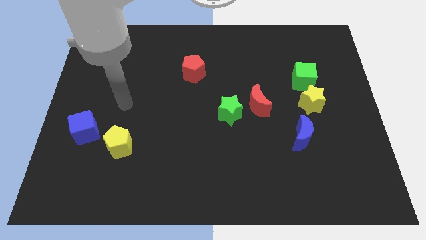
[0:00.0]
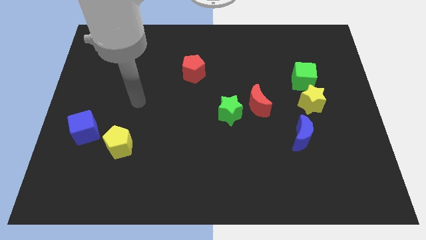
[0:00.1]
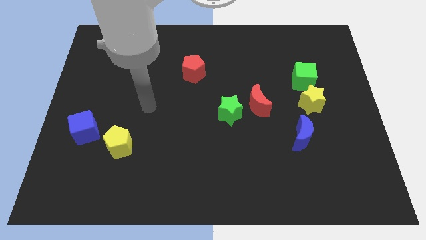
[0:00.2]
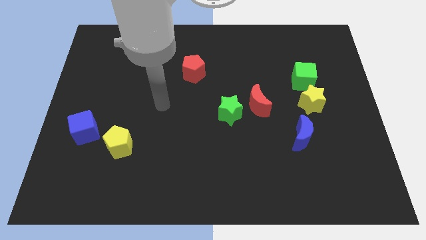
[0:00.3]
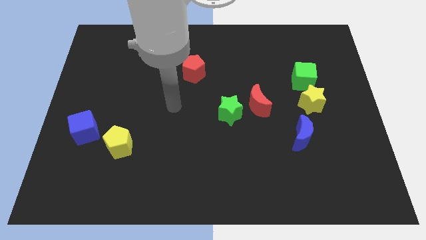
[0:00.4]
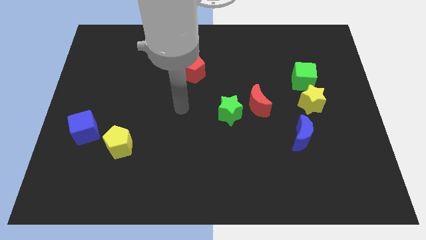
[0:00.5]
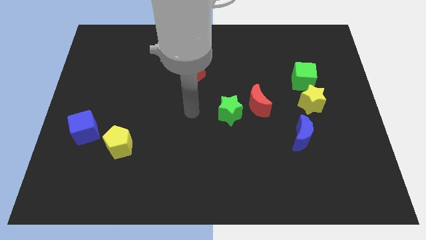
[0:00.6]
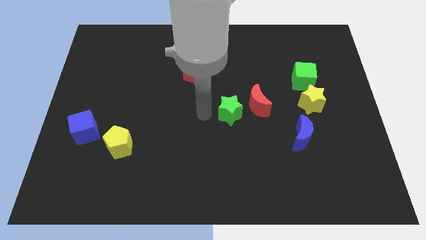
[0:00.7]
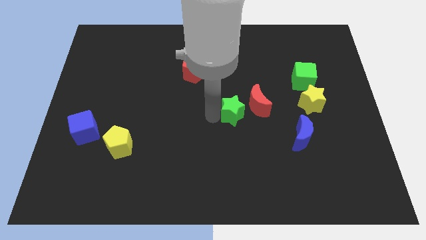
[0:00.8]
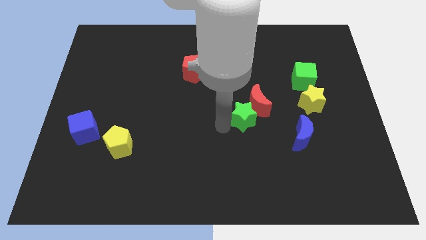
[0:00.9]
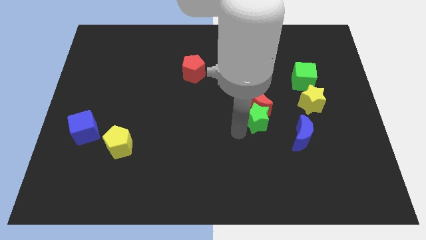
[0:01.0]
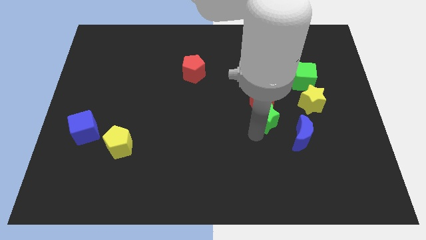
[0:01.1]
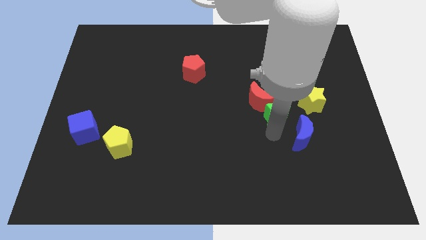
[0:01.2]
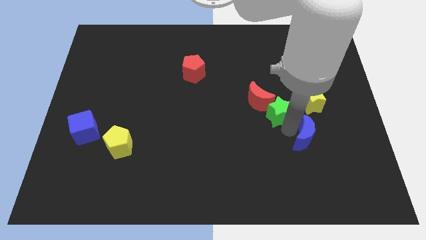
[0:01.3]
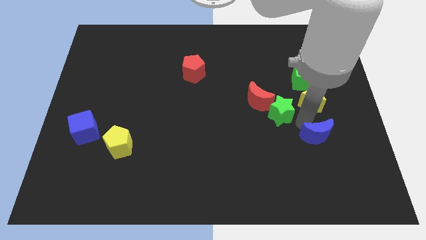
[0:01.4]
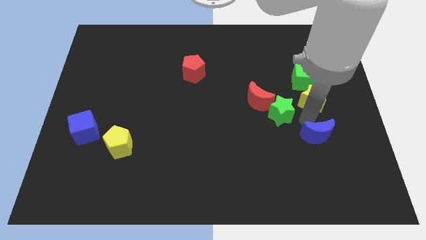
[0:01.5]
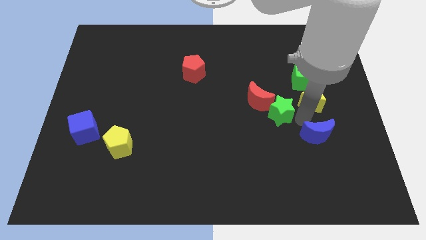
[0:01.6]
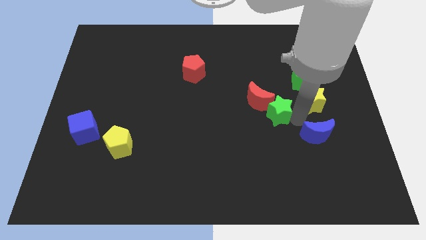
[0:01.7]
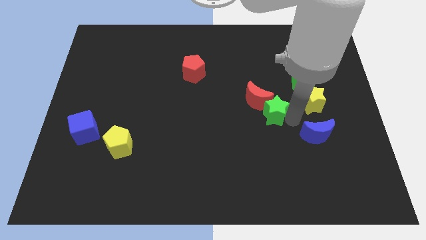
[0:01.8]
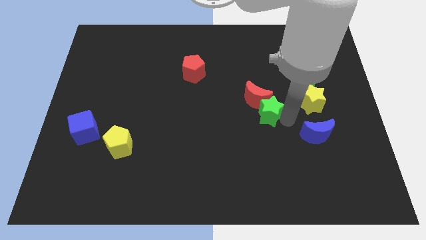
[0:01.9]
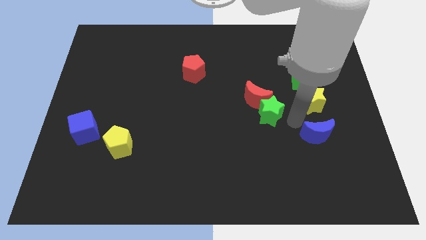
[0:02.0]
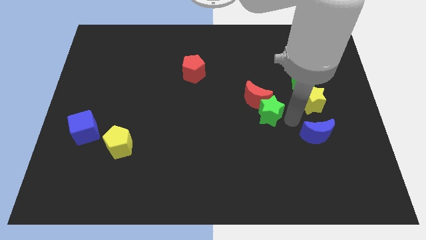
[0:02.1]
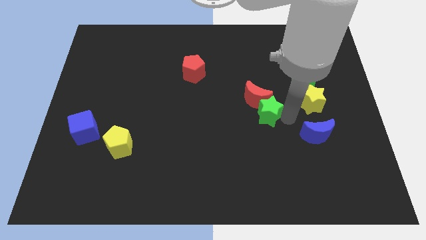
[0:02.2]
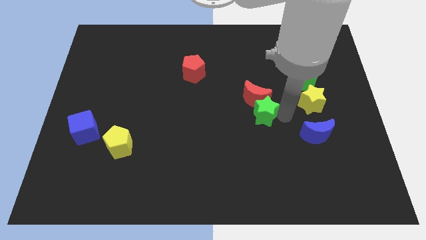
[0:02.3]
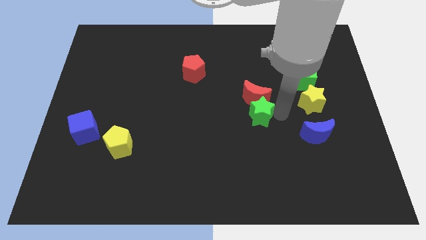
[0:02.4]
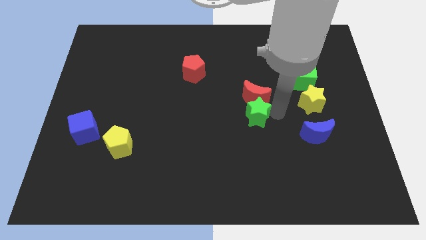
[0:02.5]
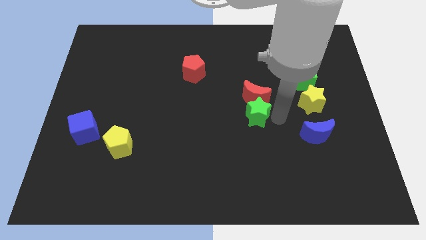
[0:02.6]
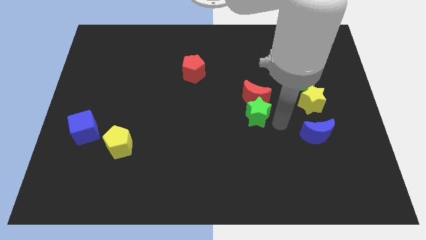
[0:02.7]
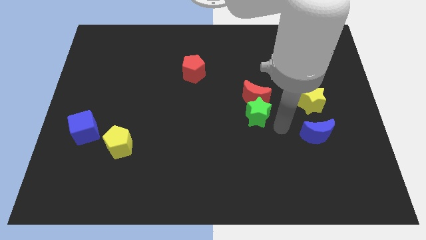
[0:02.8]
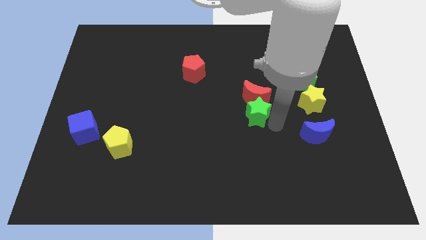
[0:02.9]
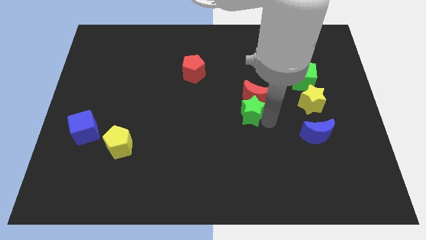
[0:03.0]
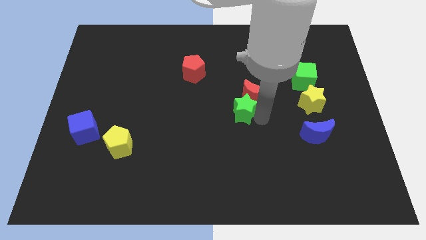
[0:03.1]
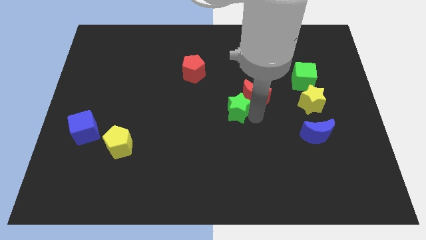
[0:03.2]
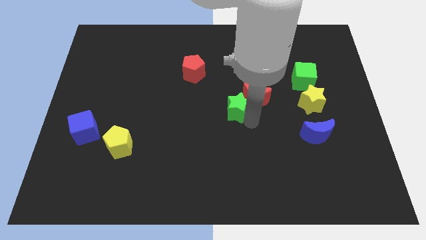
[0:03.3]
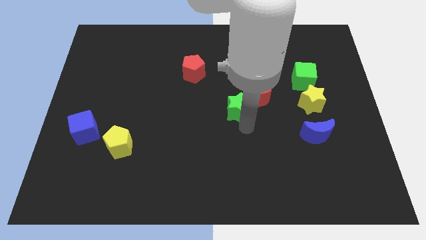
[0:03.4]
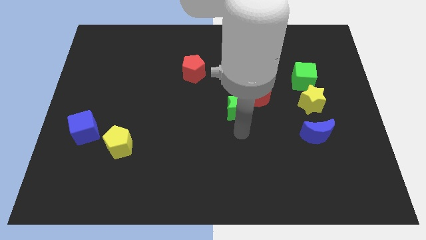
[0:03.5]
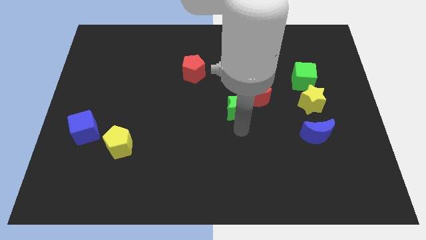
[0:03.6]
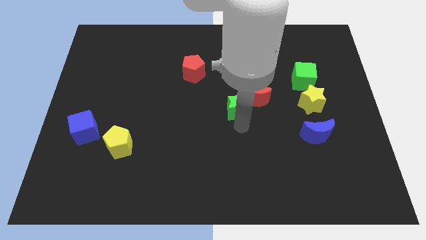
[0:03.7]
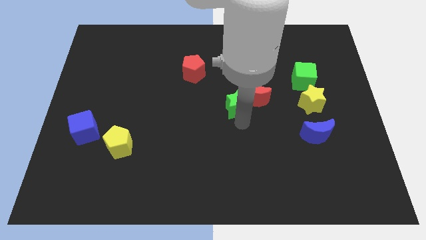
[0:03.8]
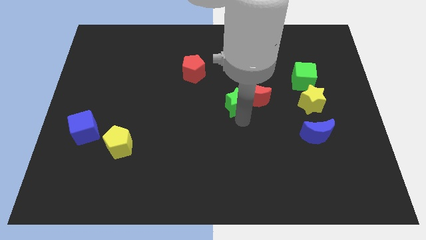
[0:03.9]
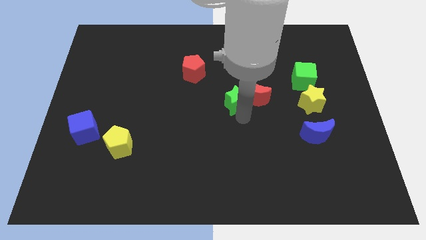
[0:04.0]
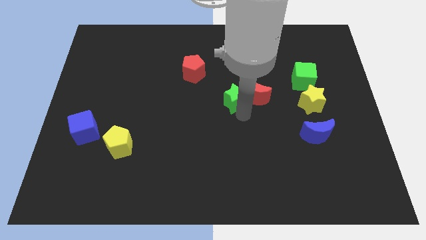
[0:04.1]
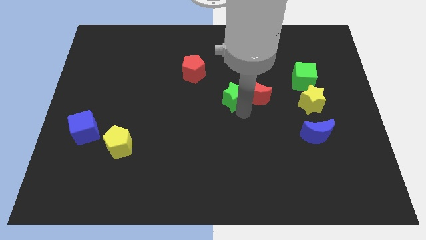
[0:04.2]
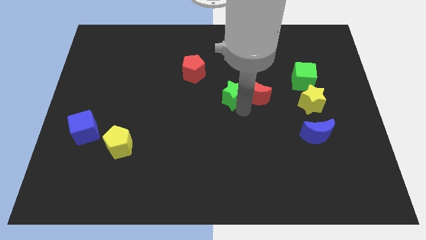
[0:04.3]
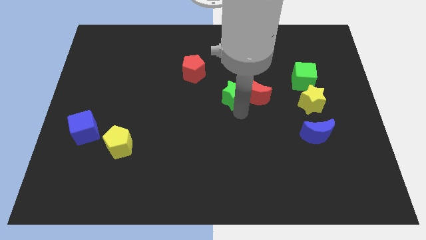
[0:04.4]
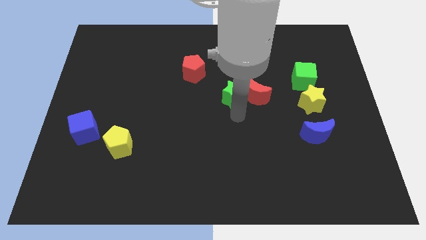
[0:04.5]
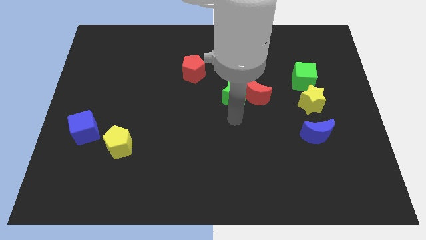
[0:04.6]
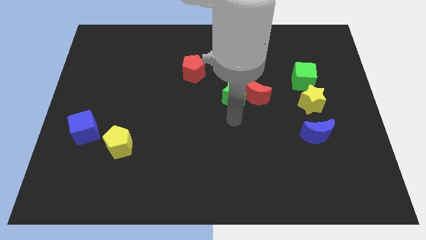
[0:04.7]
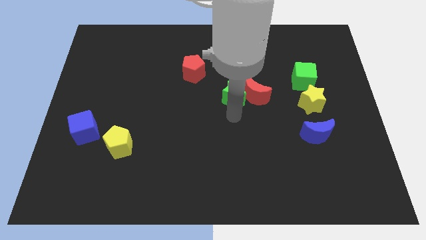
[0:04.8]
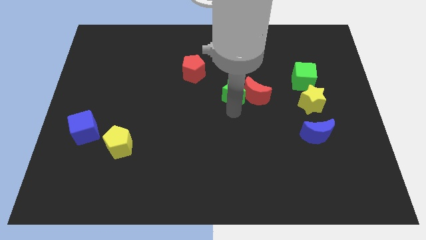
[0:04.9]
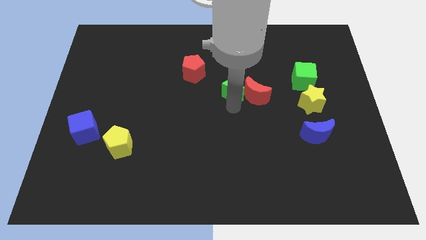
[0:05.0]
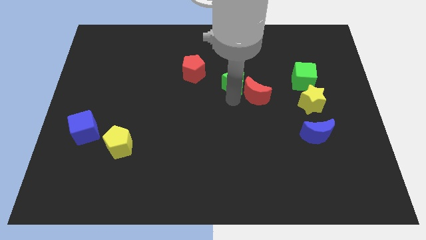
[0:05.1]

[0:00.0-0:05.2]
slightly push the green star upwards

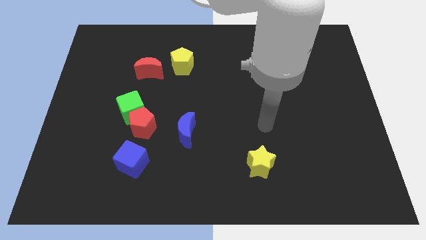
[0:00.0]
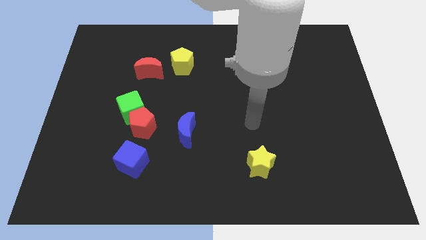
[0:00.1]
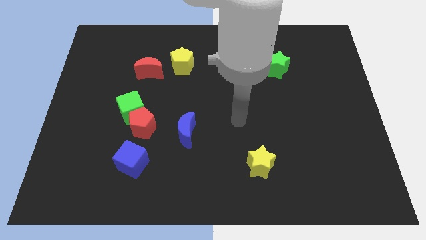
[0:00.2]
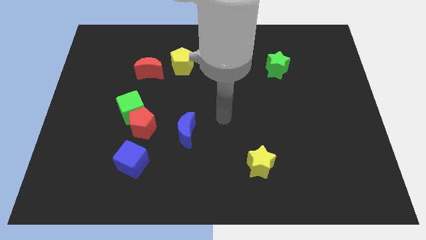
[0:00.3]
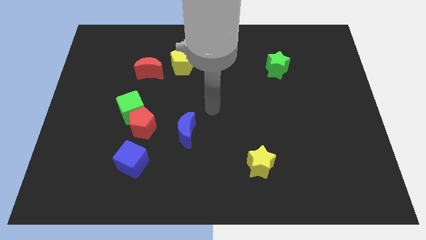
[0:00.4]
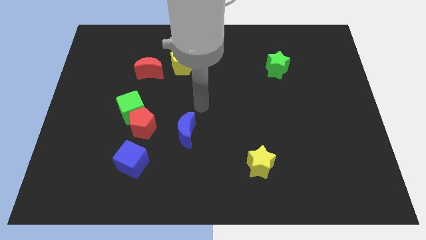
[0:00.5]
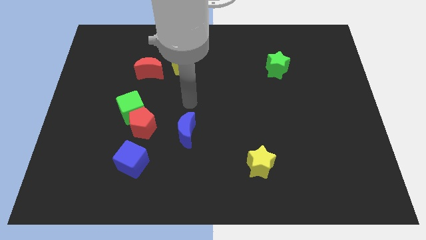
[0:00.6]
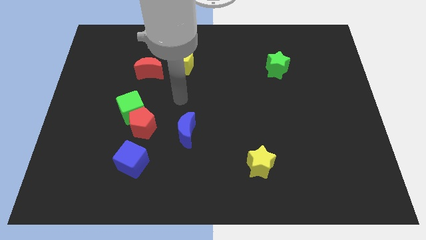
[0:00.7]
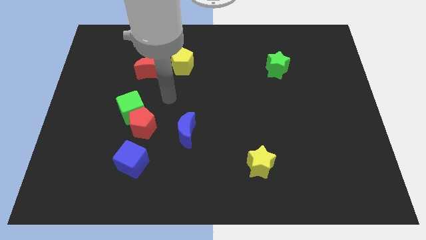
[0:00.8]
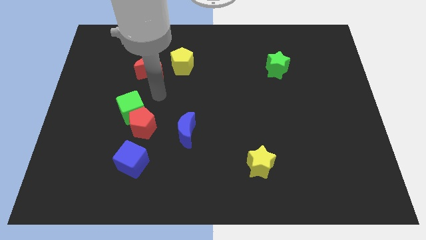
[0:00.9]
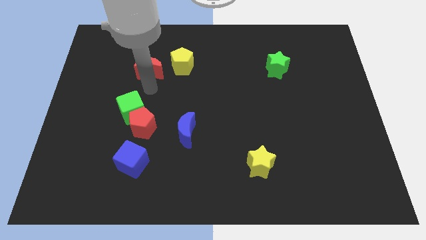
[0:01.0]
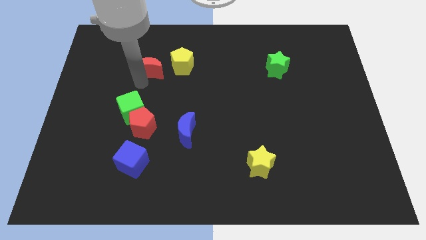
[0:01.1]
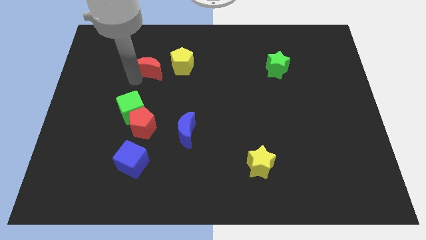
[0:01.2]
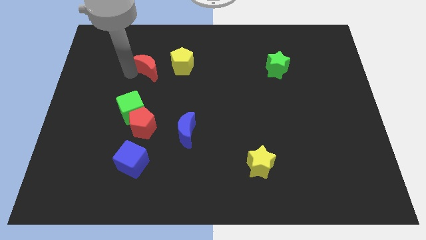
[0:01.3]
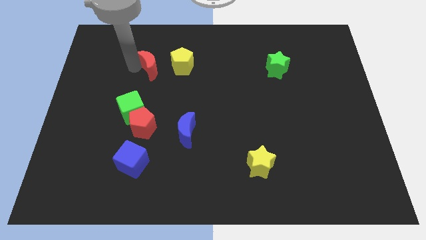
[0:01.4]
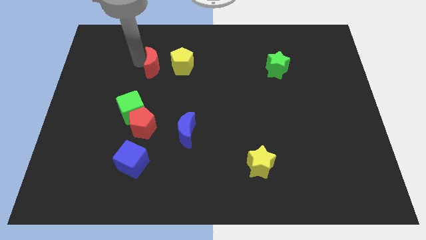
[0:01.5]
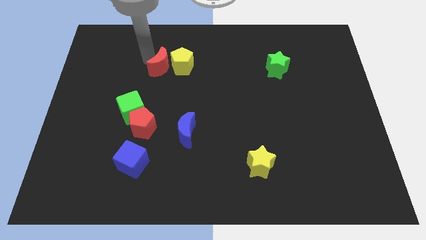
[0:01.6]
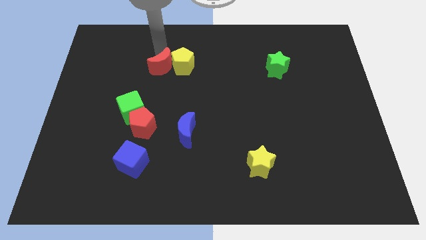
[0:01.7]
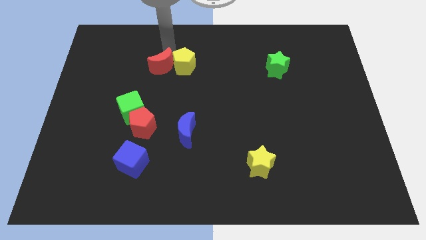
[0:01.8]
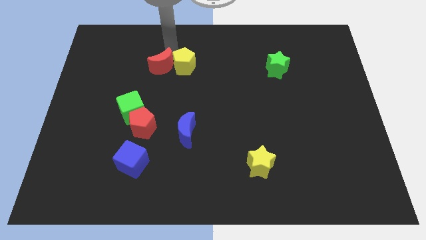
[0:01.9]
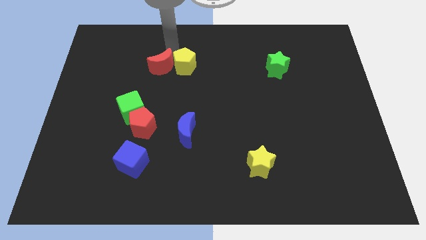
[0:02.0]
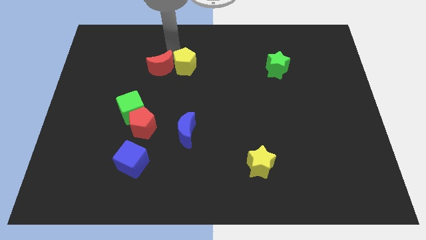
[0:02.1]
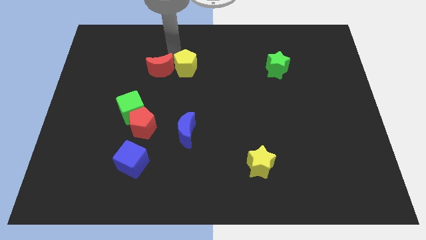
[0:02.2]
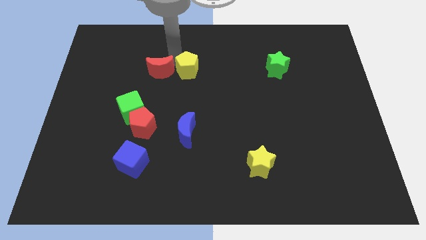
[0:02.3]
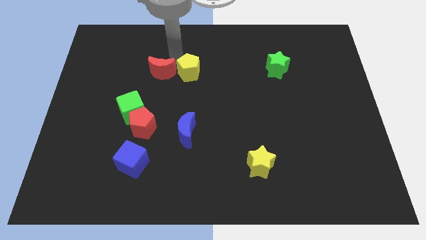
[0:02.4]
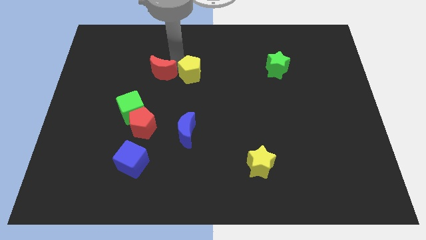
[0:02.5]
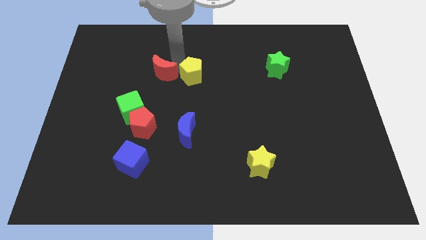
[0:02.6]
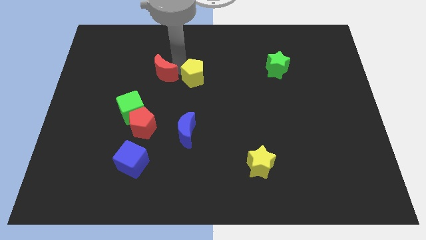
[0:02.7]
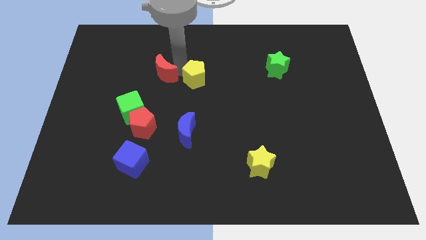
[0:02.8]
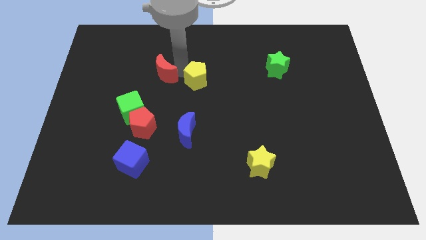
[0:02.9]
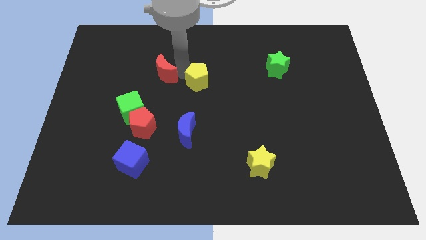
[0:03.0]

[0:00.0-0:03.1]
slide the yellow pentagon down and right diagonally a bit
